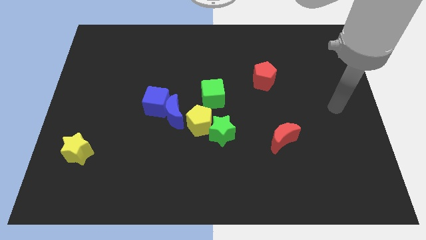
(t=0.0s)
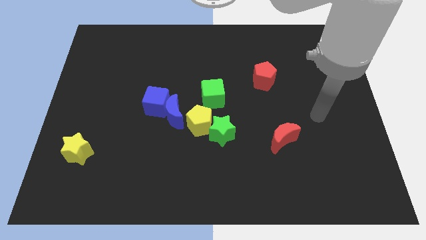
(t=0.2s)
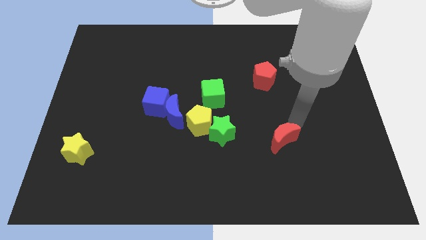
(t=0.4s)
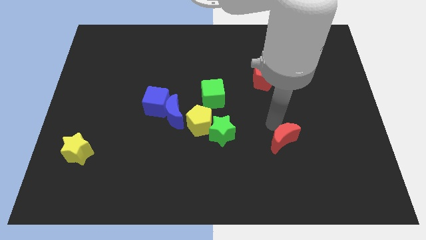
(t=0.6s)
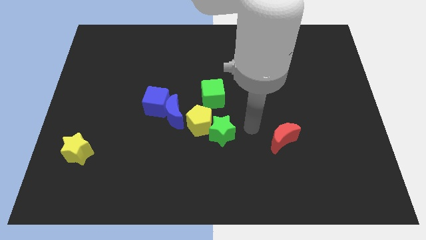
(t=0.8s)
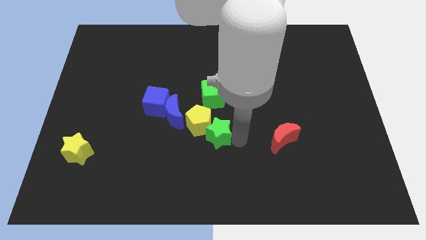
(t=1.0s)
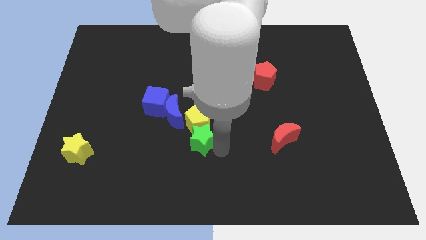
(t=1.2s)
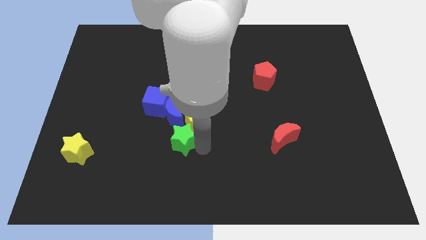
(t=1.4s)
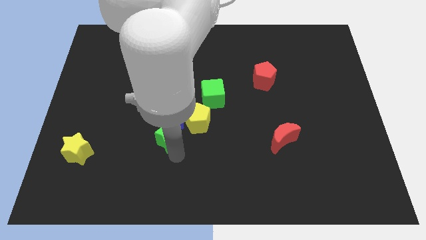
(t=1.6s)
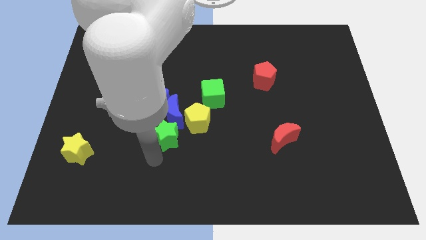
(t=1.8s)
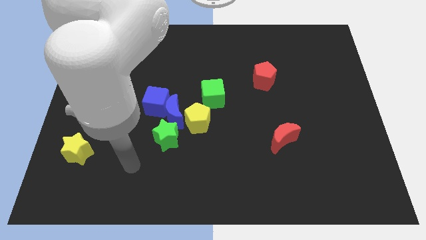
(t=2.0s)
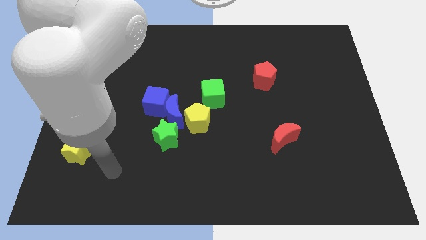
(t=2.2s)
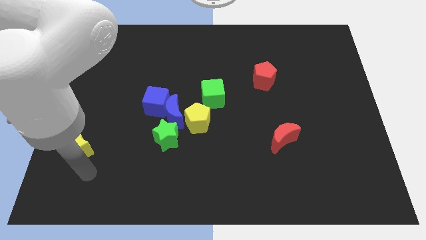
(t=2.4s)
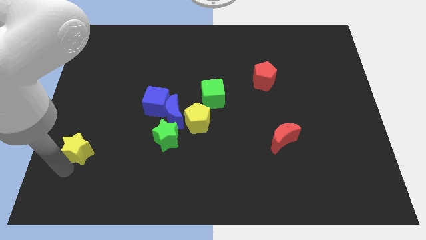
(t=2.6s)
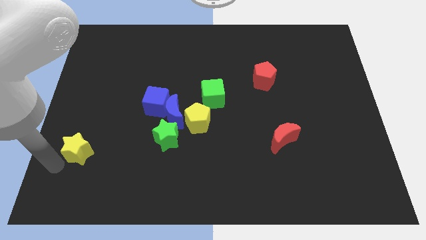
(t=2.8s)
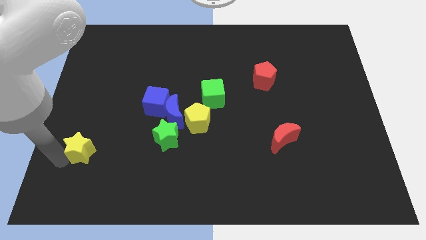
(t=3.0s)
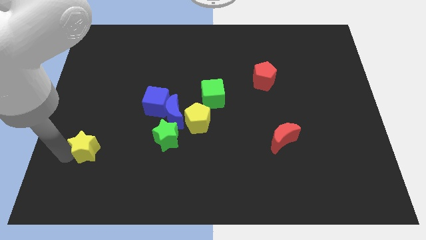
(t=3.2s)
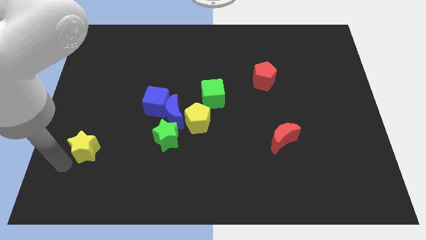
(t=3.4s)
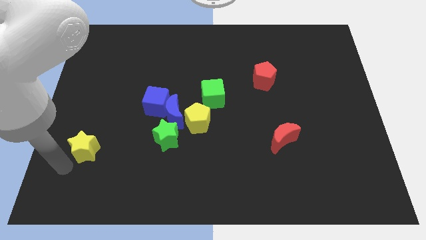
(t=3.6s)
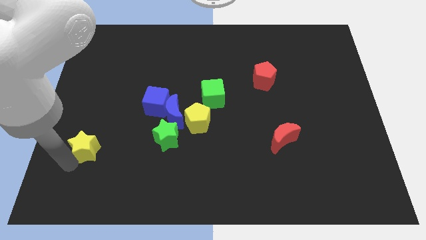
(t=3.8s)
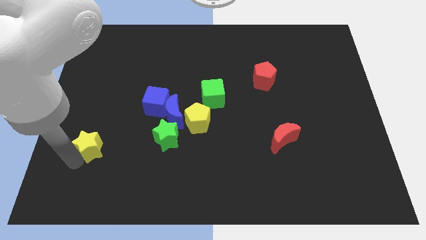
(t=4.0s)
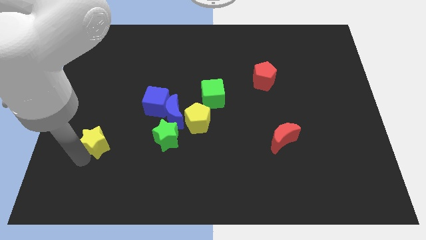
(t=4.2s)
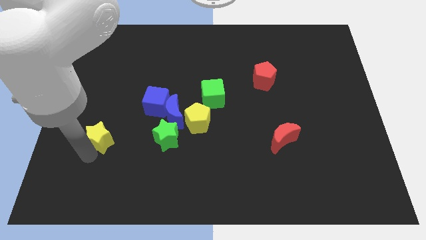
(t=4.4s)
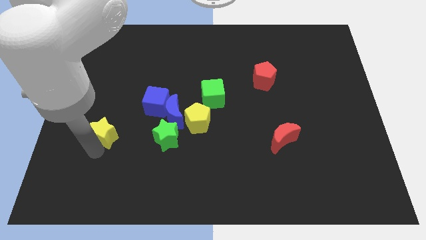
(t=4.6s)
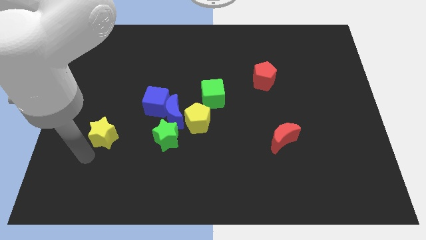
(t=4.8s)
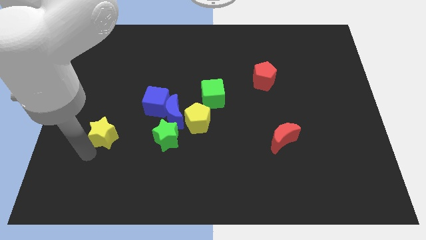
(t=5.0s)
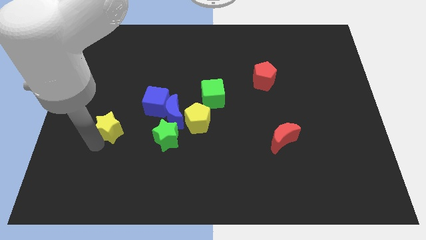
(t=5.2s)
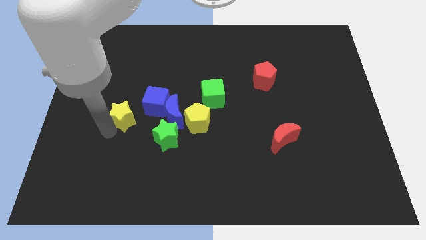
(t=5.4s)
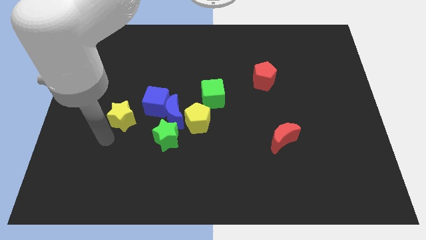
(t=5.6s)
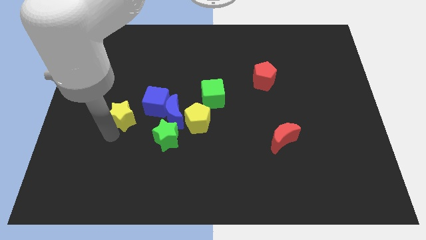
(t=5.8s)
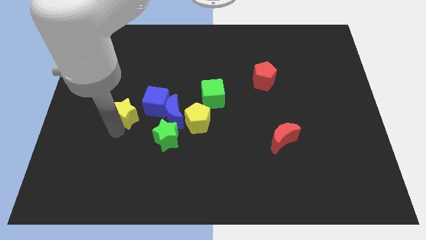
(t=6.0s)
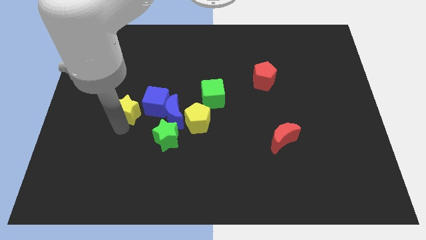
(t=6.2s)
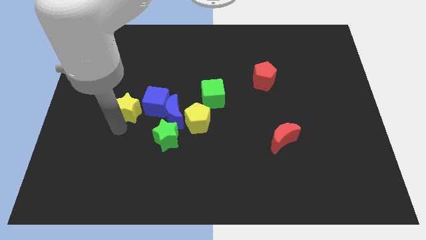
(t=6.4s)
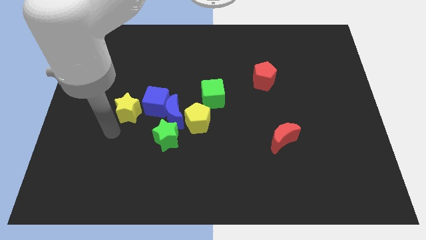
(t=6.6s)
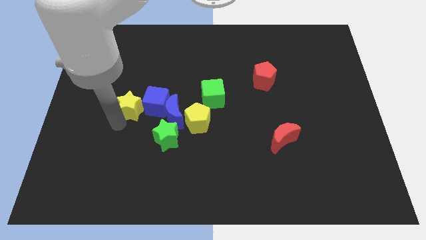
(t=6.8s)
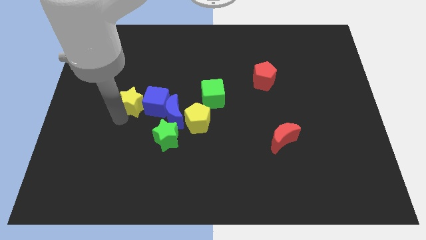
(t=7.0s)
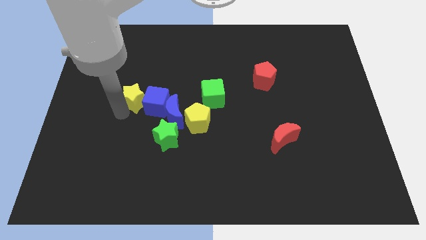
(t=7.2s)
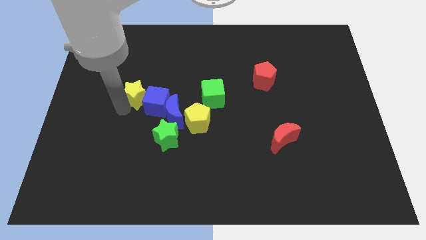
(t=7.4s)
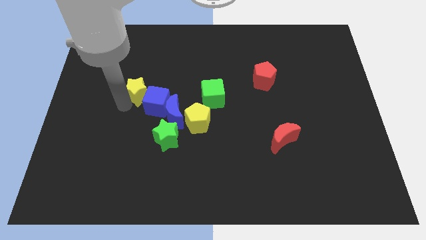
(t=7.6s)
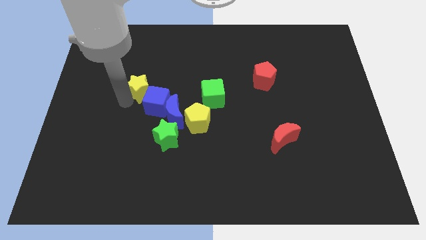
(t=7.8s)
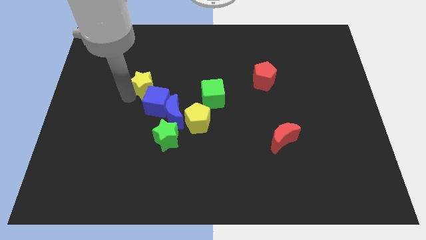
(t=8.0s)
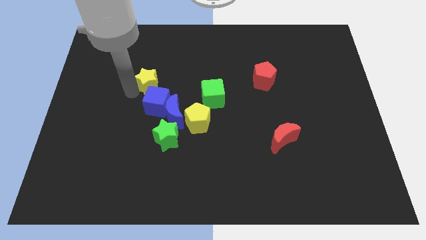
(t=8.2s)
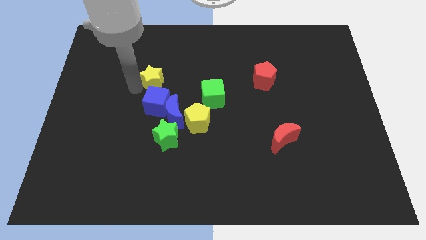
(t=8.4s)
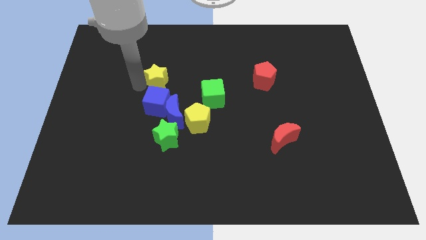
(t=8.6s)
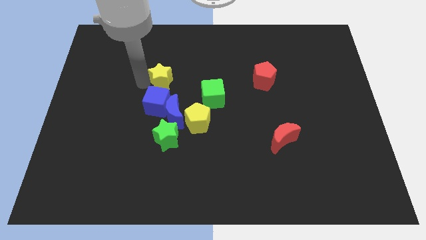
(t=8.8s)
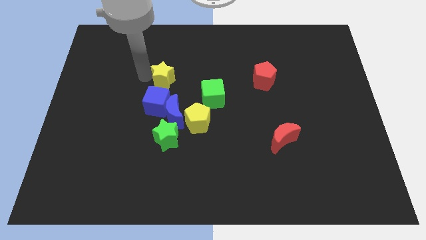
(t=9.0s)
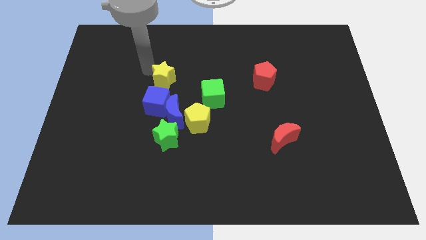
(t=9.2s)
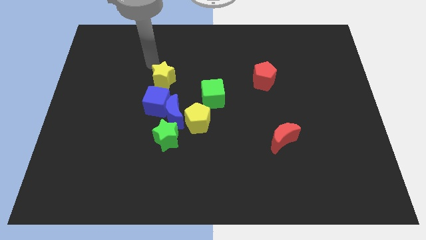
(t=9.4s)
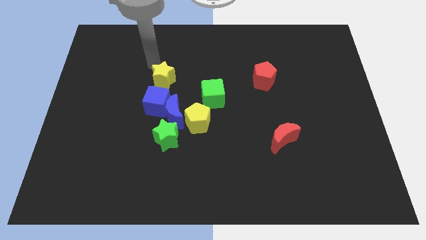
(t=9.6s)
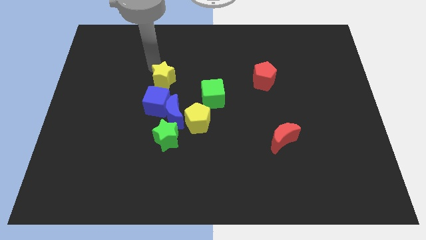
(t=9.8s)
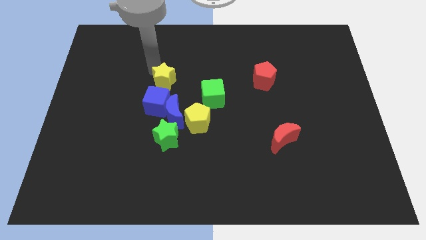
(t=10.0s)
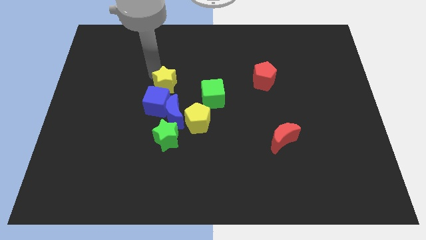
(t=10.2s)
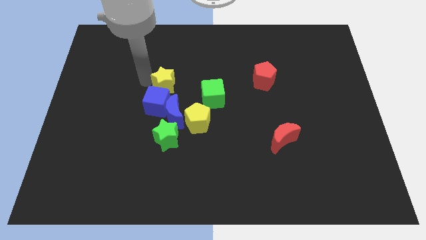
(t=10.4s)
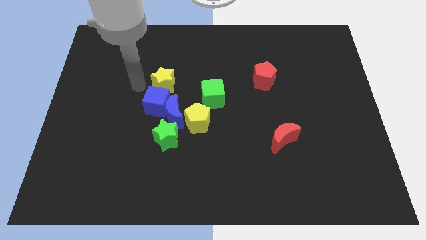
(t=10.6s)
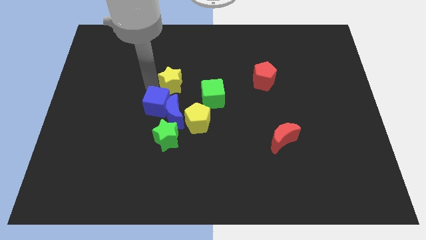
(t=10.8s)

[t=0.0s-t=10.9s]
slide the yellow star to the top left of the green cube

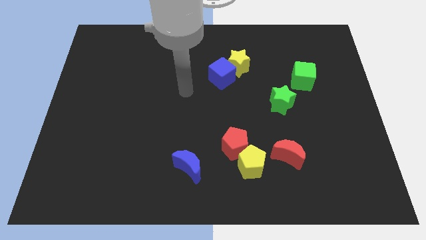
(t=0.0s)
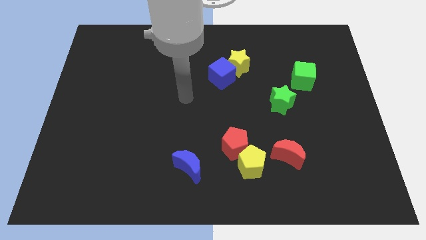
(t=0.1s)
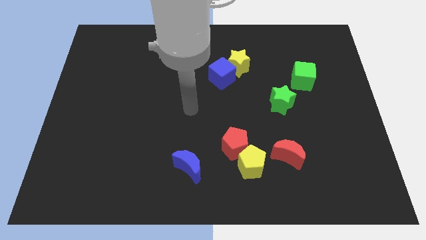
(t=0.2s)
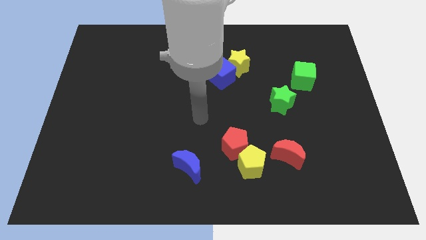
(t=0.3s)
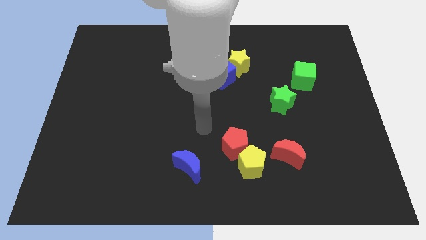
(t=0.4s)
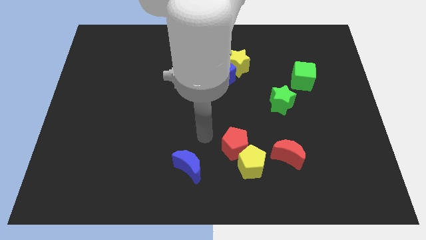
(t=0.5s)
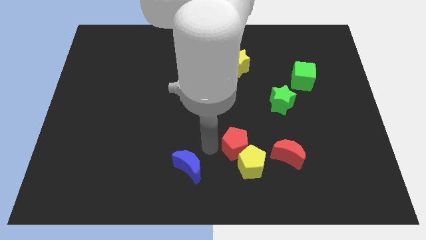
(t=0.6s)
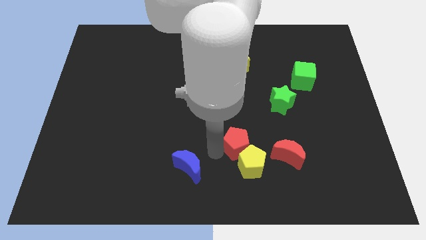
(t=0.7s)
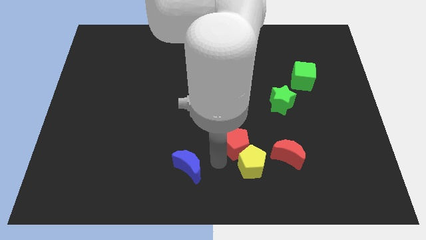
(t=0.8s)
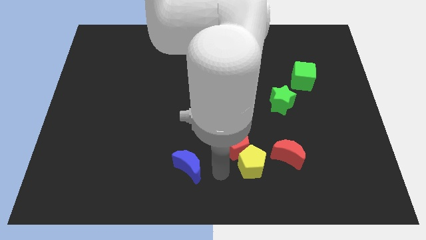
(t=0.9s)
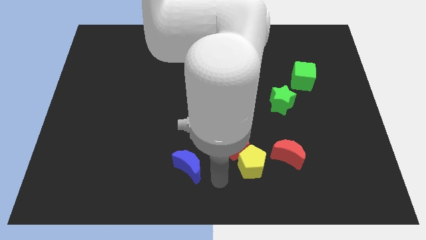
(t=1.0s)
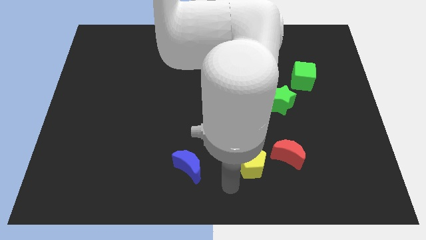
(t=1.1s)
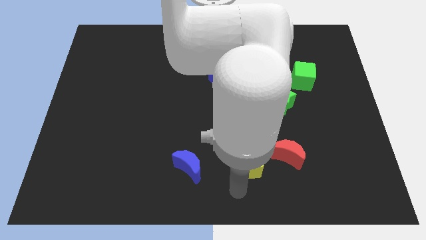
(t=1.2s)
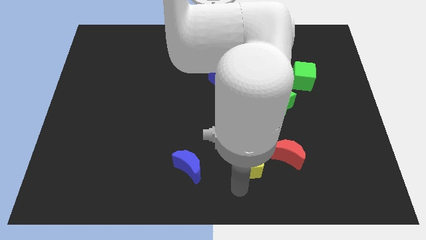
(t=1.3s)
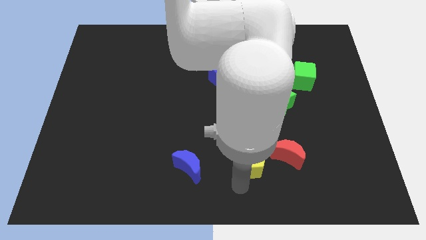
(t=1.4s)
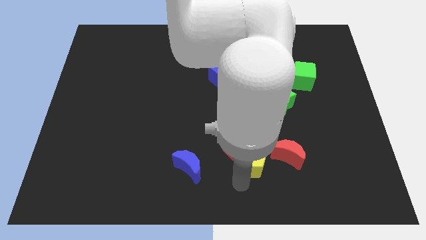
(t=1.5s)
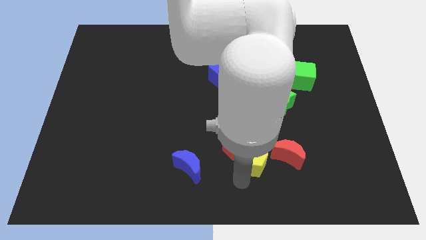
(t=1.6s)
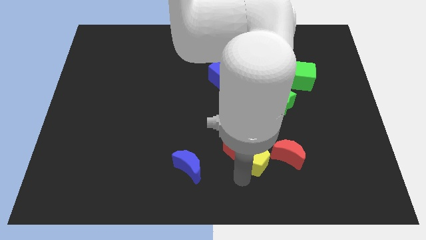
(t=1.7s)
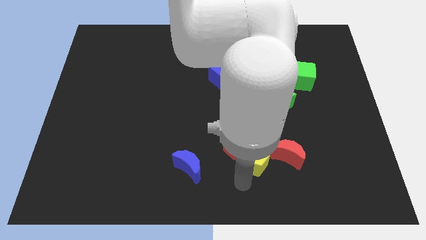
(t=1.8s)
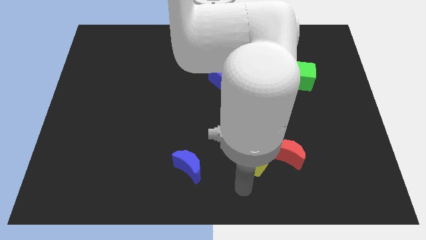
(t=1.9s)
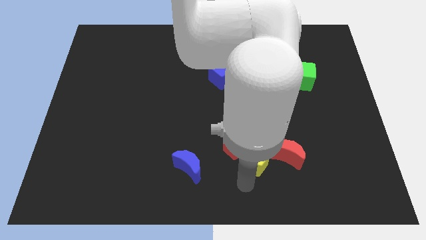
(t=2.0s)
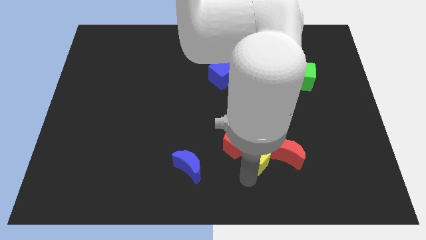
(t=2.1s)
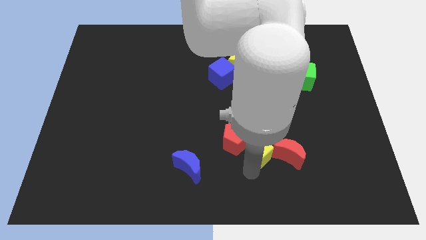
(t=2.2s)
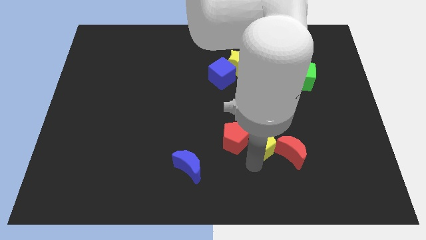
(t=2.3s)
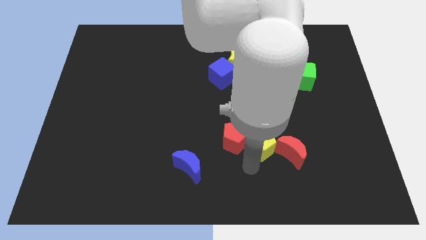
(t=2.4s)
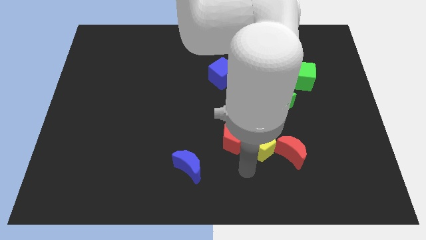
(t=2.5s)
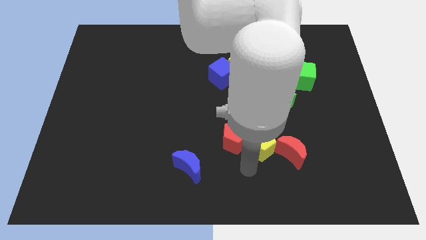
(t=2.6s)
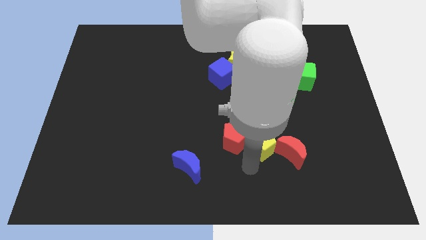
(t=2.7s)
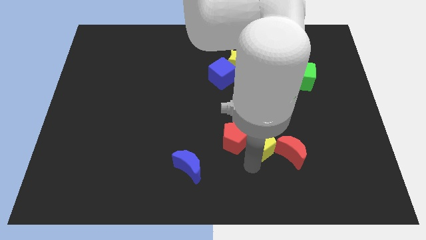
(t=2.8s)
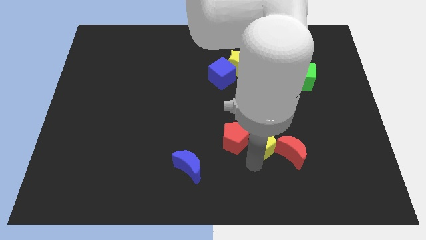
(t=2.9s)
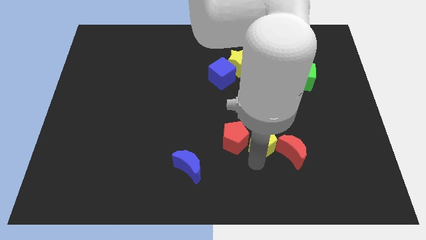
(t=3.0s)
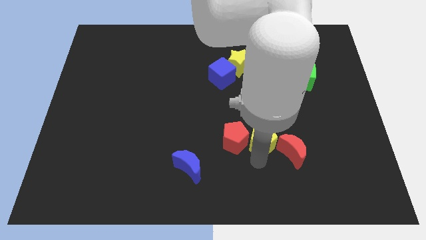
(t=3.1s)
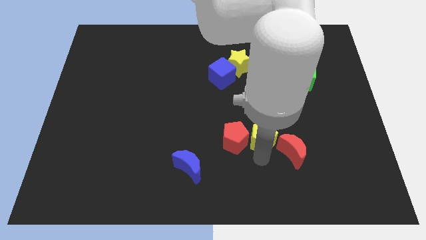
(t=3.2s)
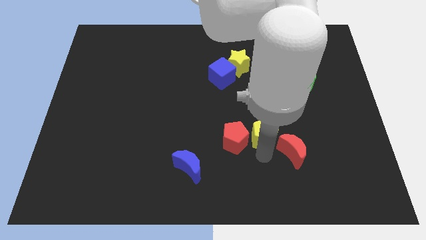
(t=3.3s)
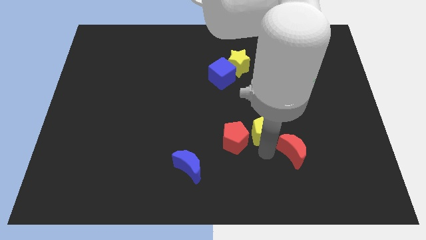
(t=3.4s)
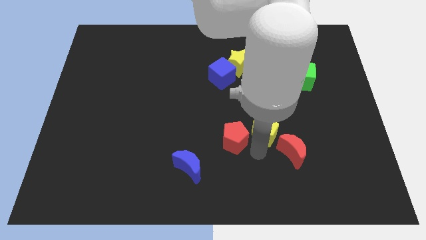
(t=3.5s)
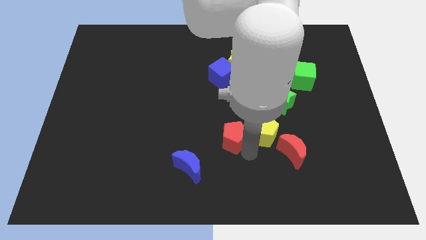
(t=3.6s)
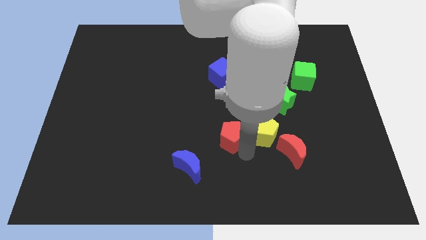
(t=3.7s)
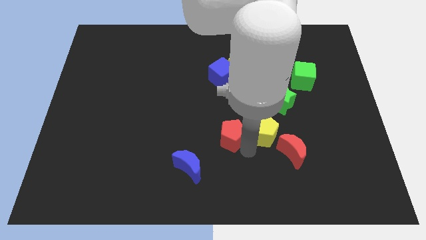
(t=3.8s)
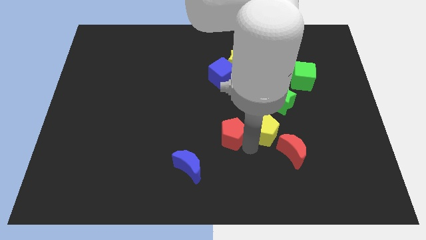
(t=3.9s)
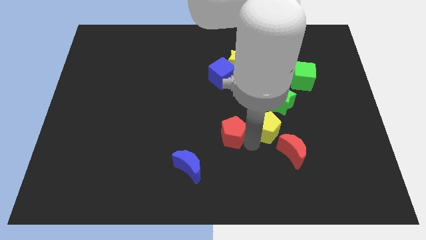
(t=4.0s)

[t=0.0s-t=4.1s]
put the yellow pentagon above the red moon
